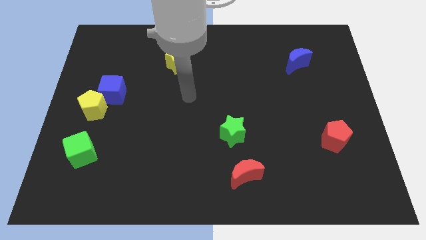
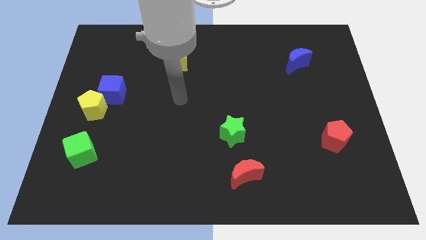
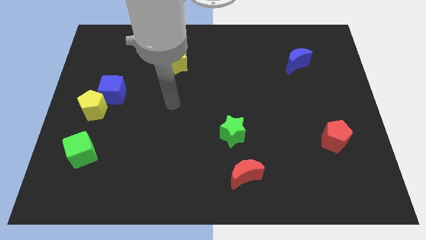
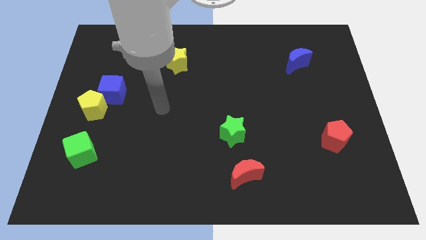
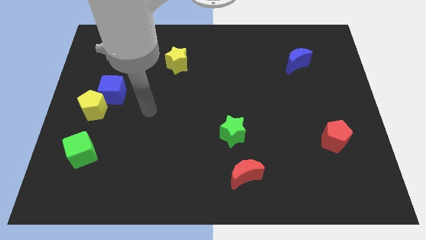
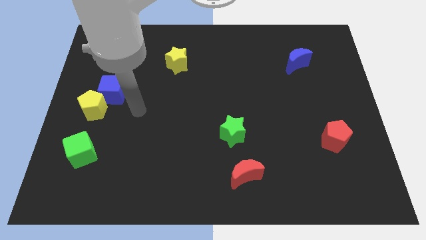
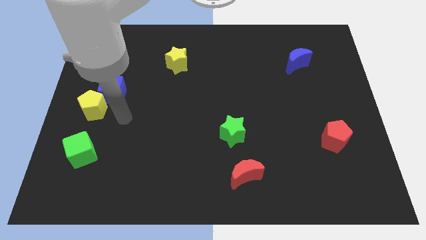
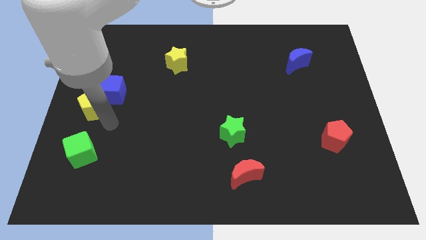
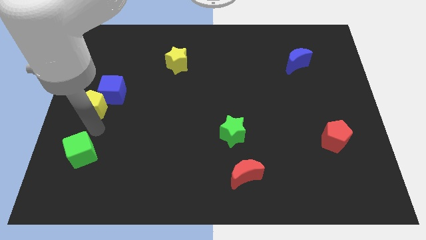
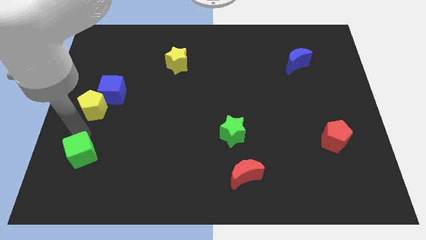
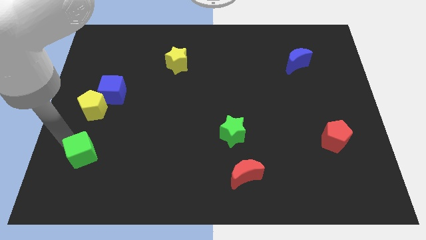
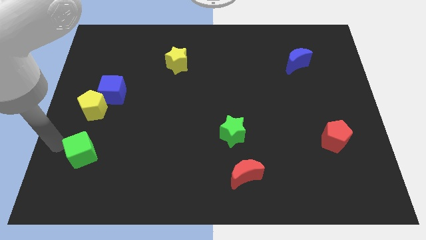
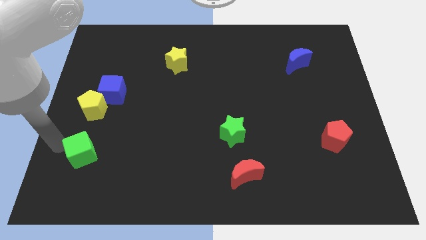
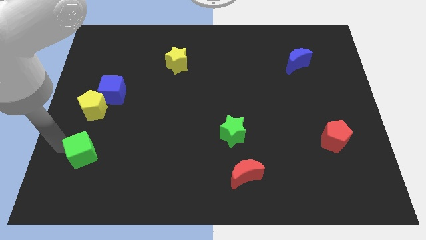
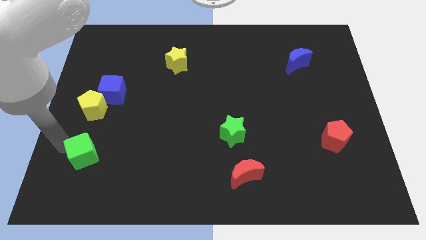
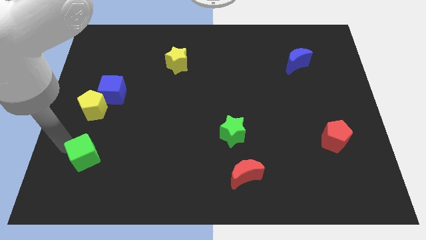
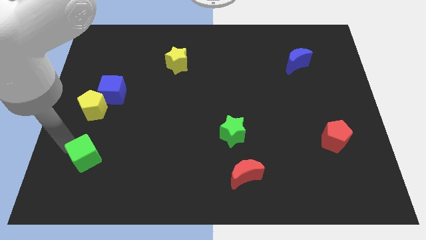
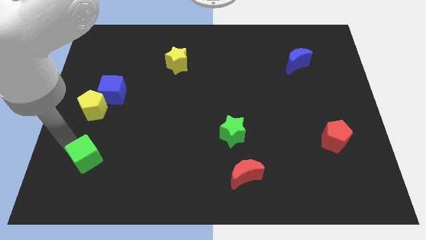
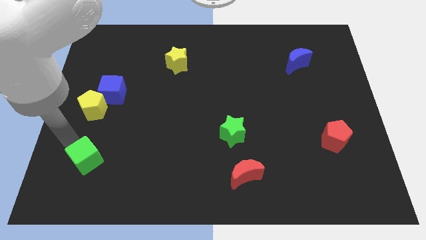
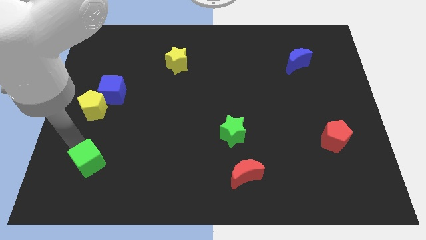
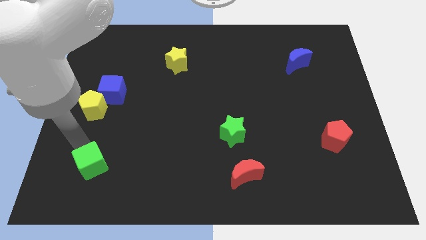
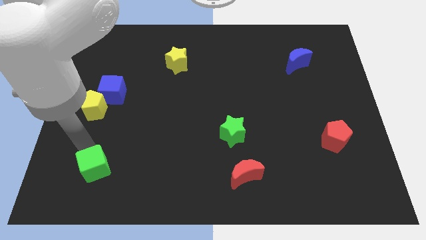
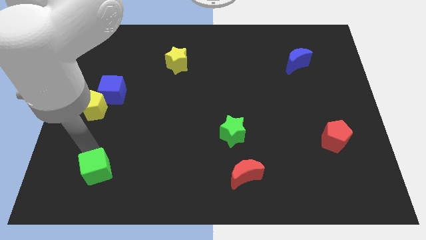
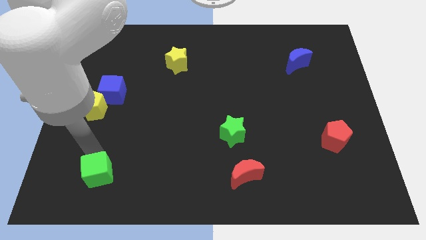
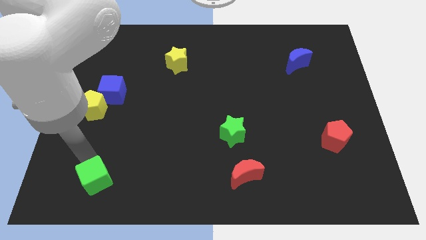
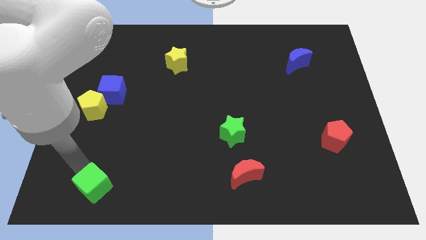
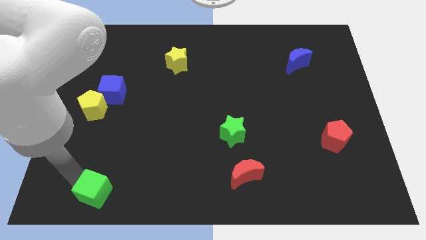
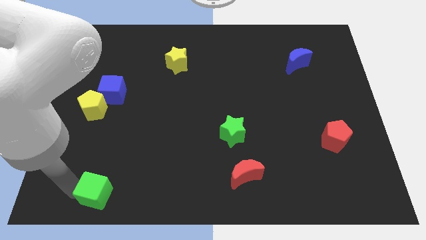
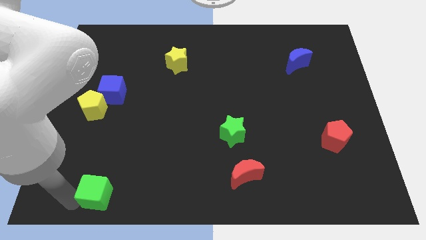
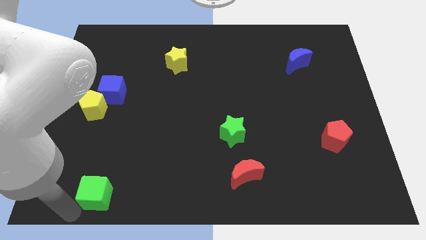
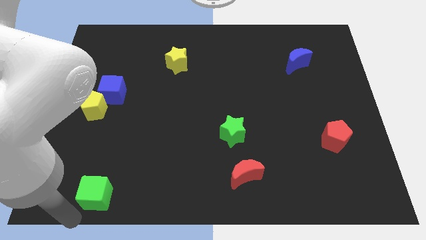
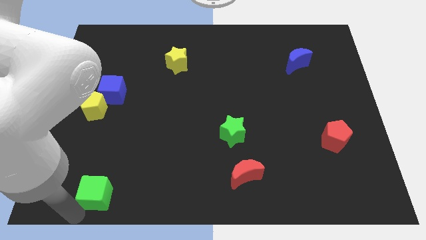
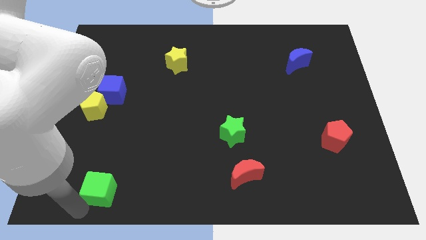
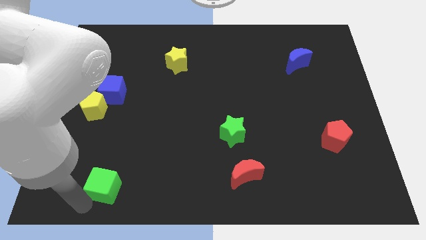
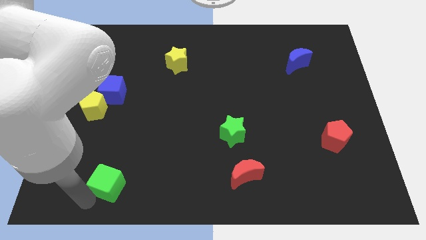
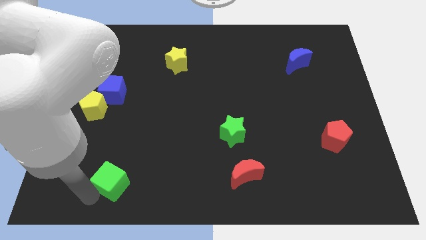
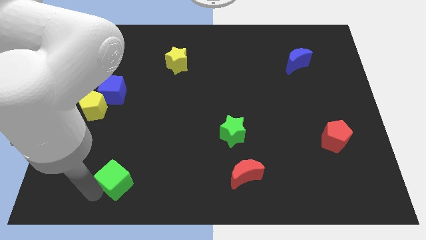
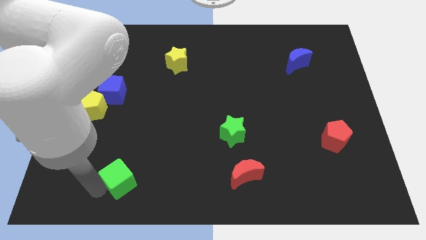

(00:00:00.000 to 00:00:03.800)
move the green cube a bit right

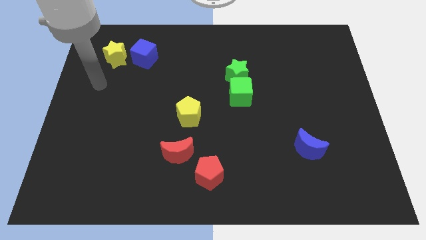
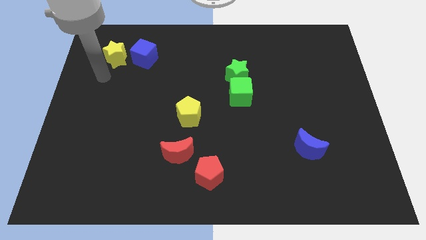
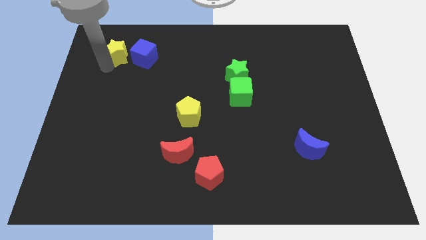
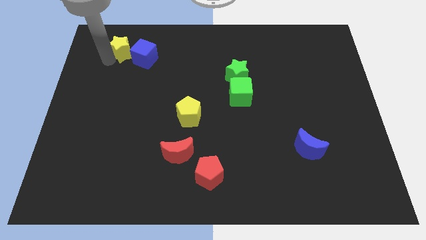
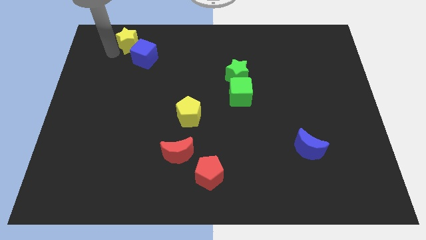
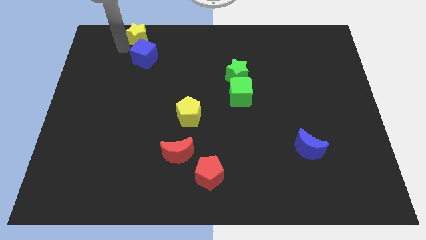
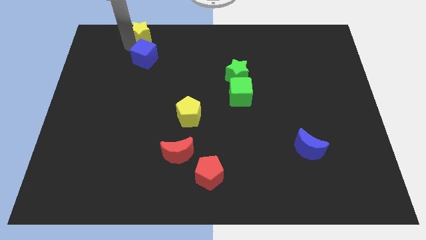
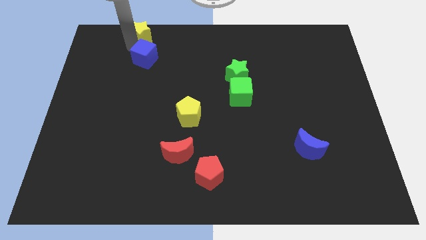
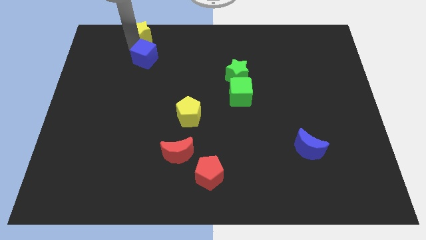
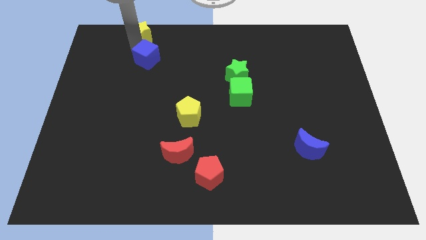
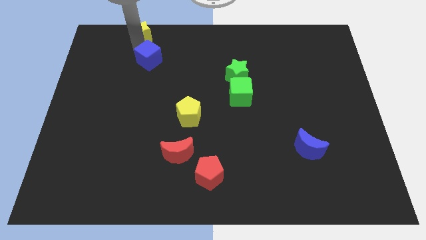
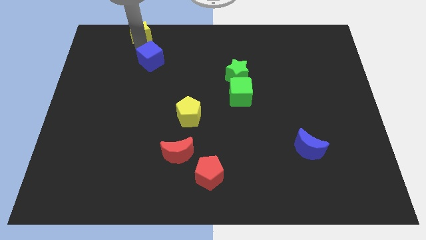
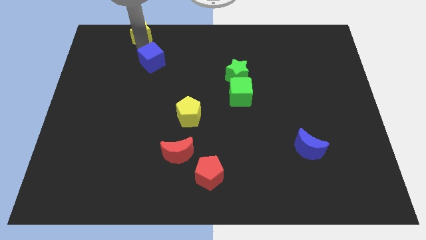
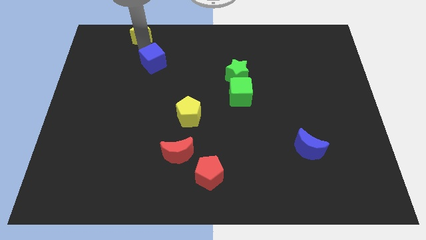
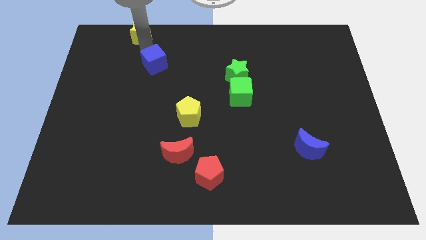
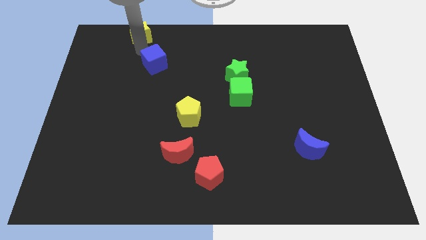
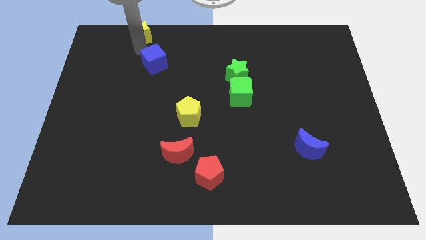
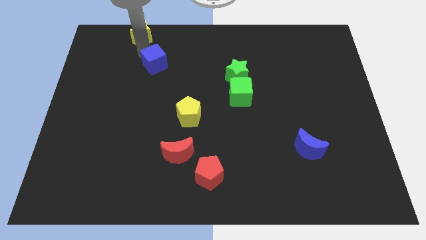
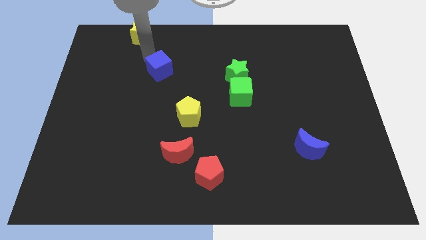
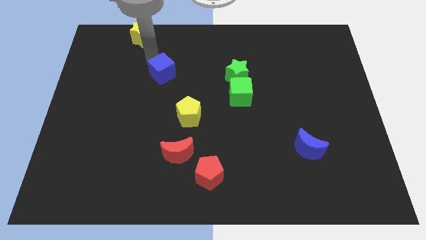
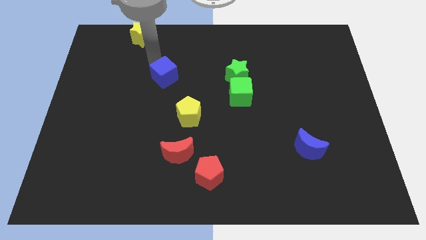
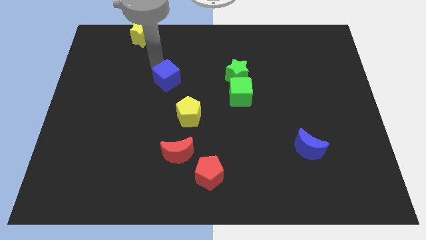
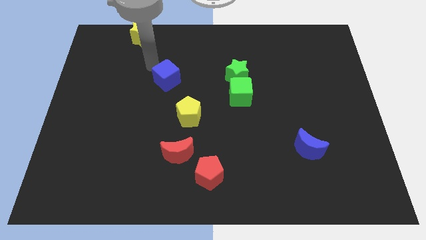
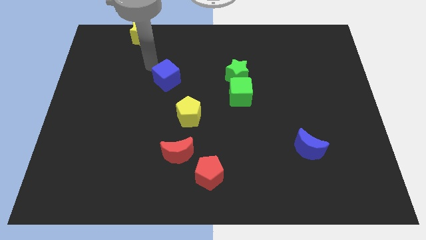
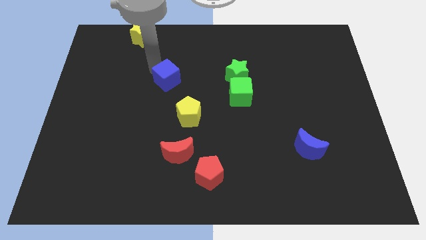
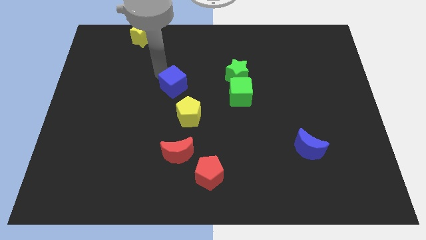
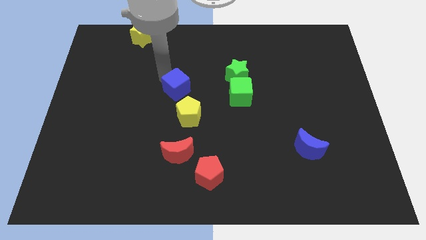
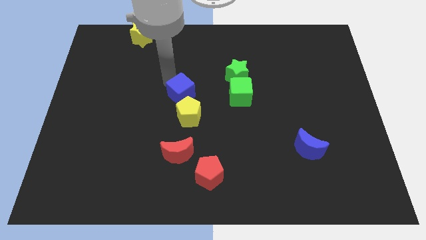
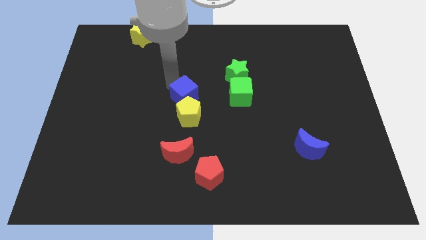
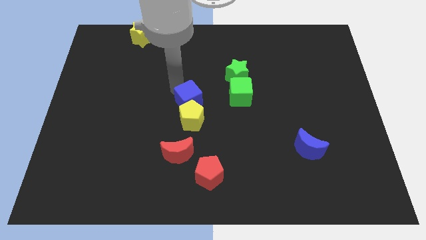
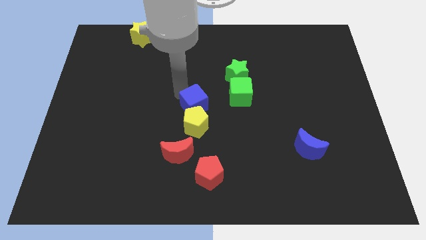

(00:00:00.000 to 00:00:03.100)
move the blue cube down and to the right

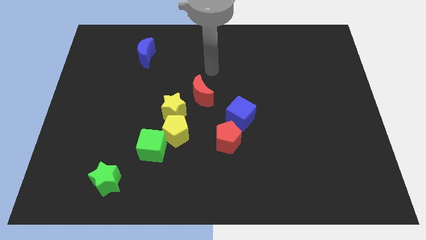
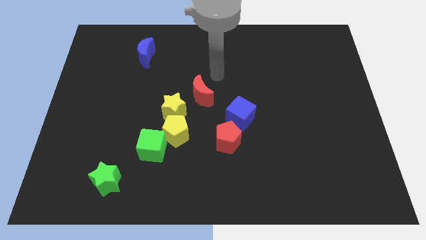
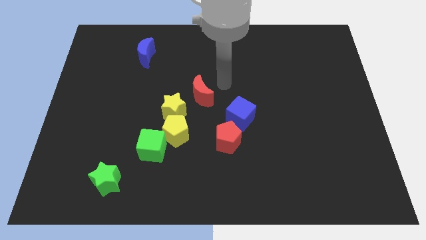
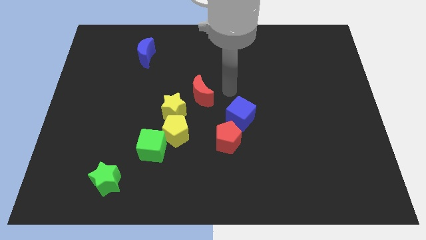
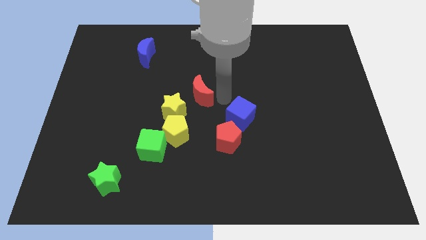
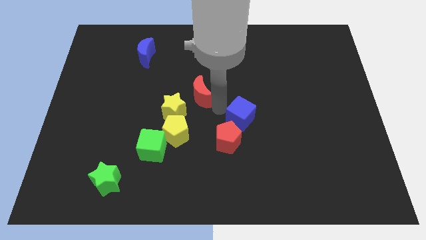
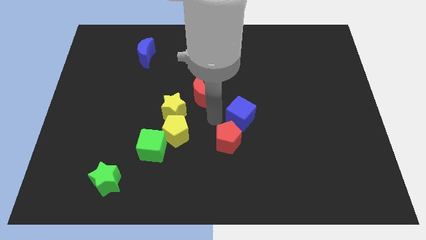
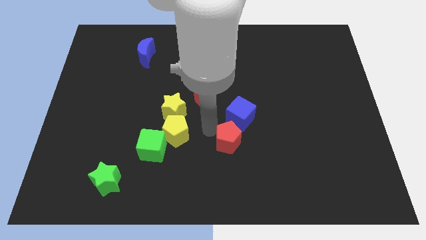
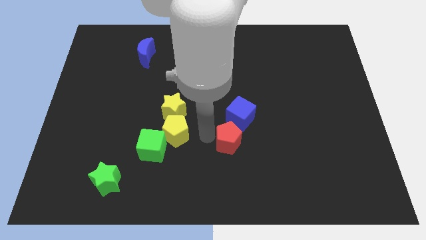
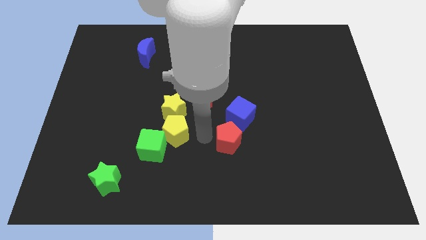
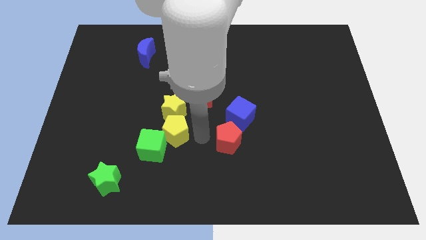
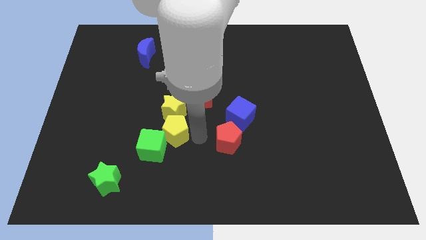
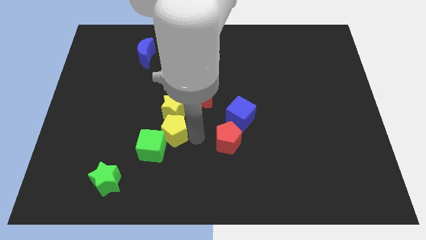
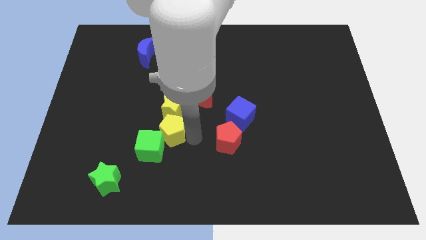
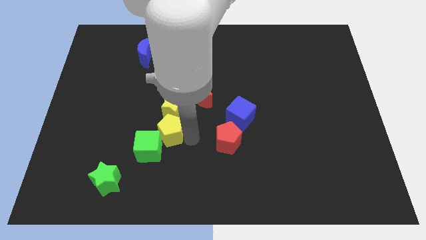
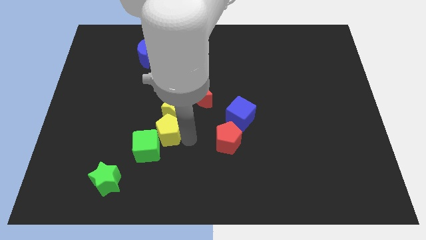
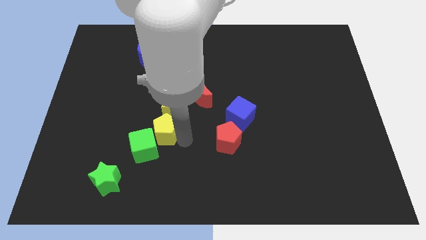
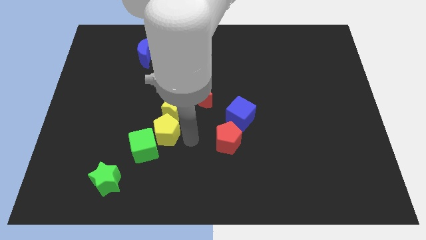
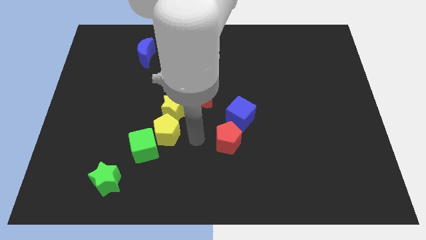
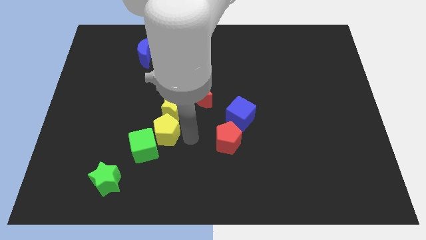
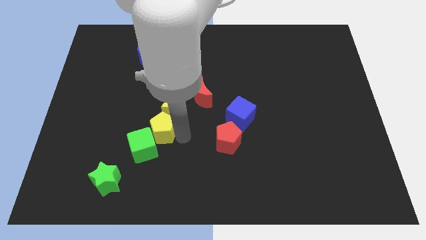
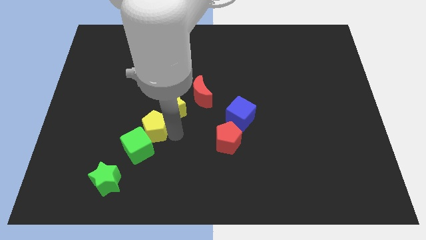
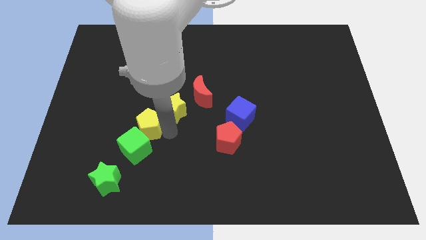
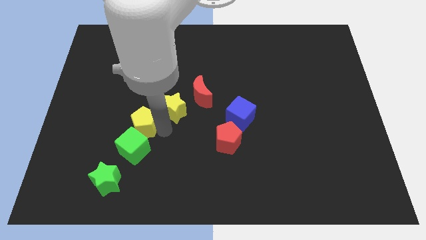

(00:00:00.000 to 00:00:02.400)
move the yellow pentagon left a little
